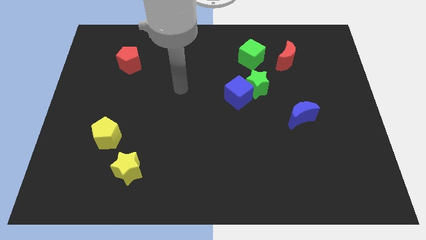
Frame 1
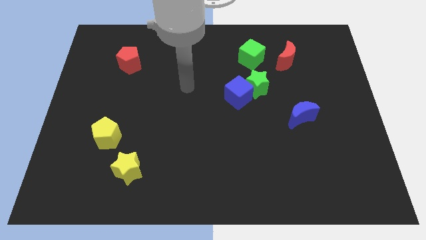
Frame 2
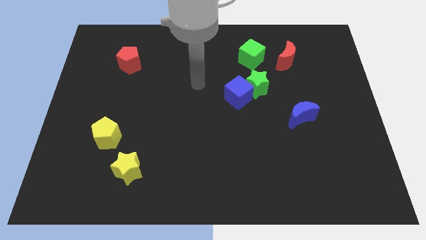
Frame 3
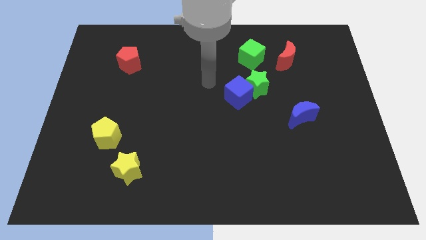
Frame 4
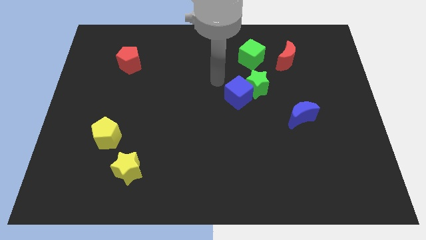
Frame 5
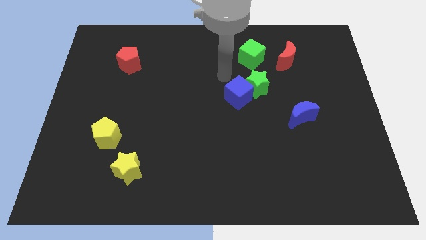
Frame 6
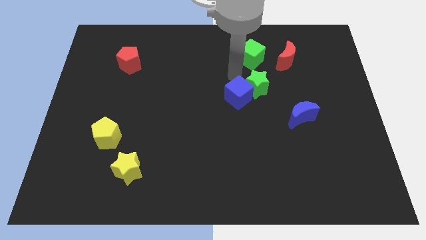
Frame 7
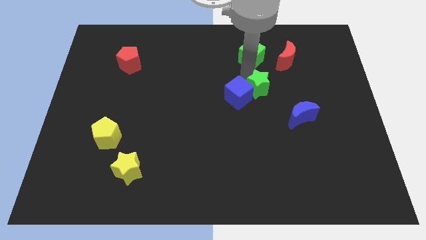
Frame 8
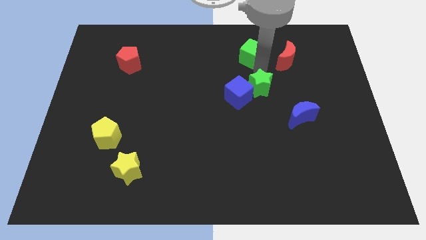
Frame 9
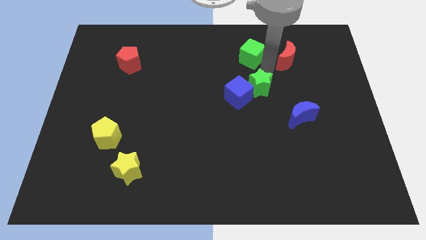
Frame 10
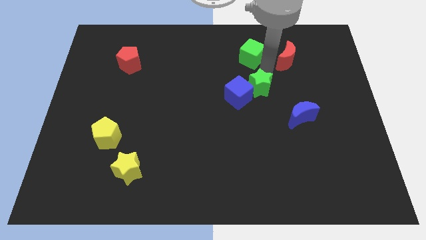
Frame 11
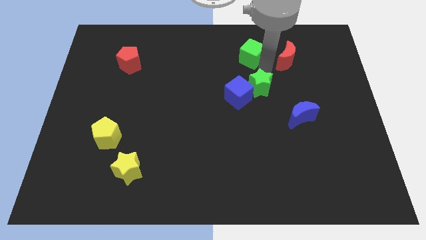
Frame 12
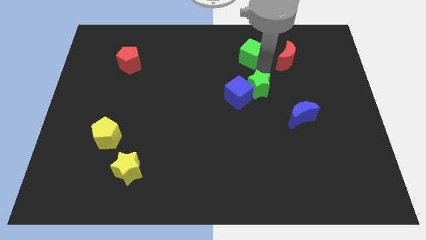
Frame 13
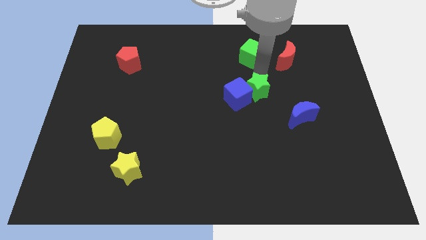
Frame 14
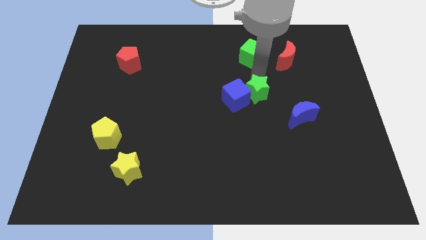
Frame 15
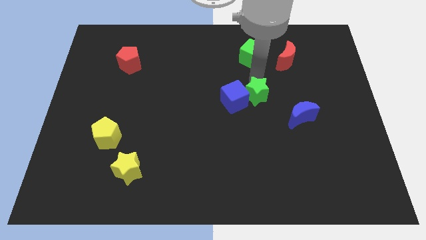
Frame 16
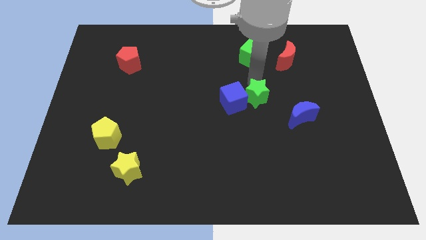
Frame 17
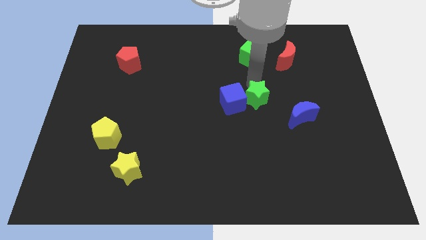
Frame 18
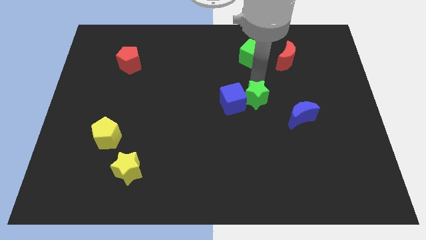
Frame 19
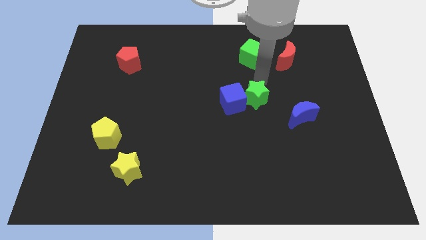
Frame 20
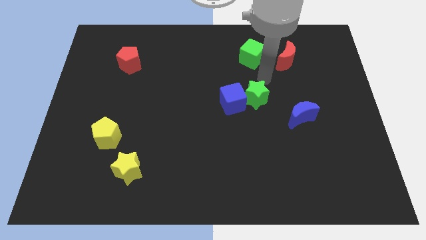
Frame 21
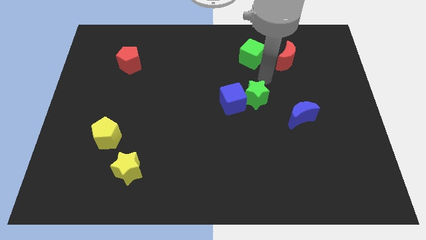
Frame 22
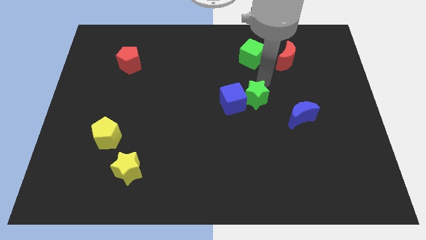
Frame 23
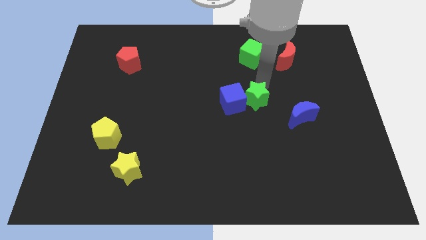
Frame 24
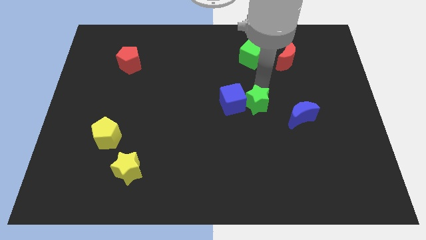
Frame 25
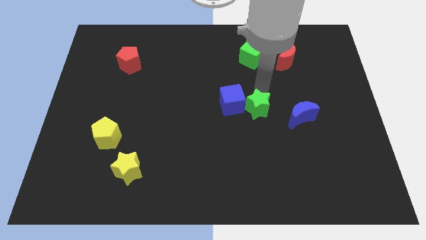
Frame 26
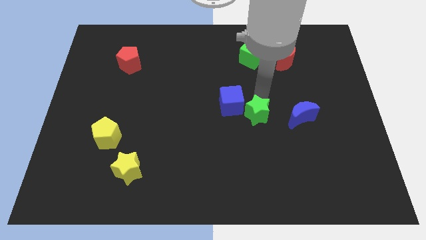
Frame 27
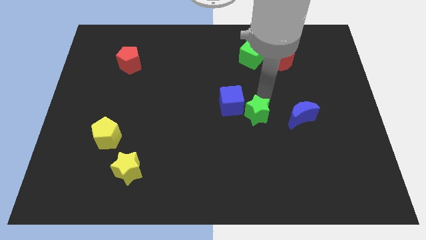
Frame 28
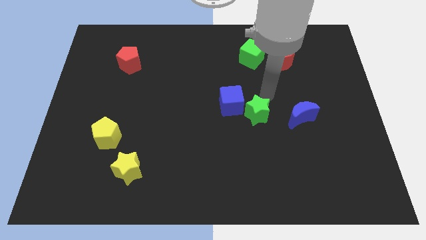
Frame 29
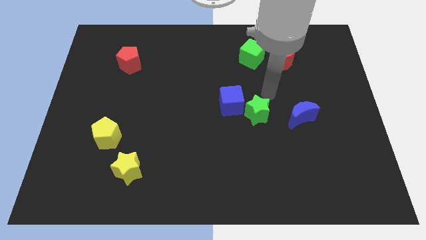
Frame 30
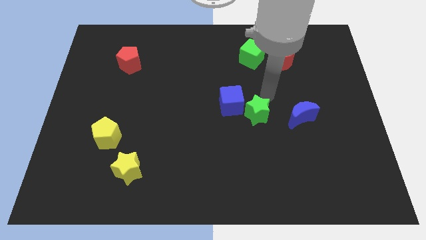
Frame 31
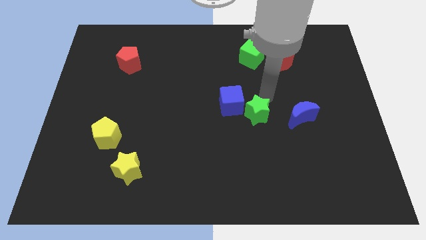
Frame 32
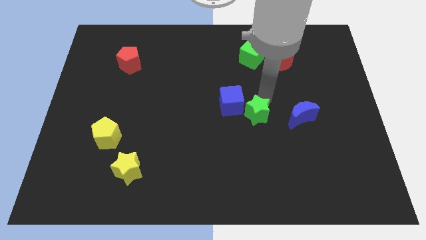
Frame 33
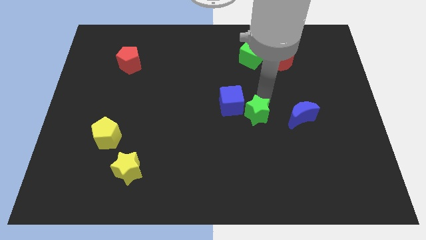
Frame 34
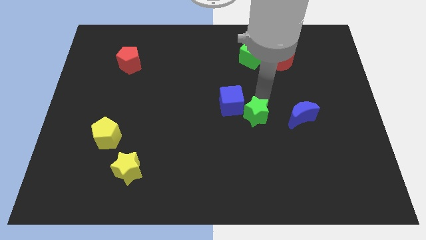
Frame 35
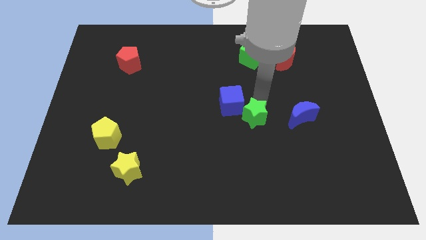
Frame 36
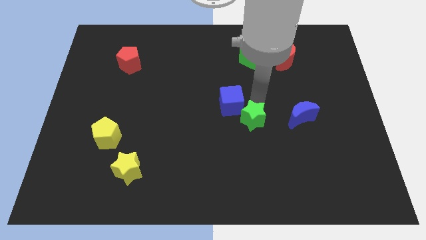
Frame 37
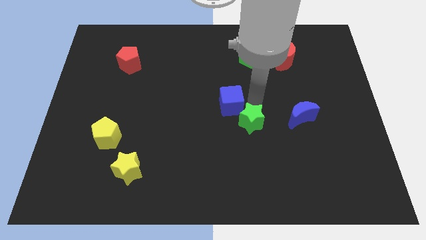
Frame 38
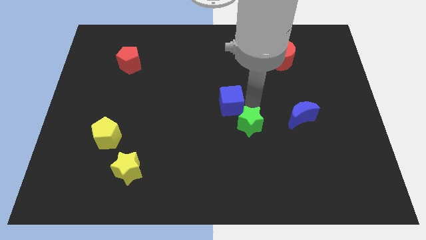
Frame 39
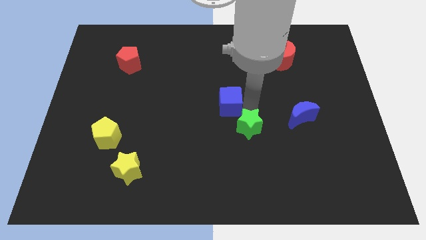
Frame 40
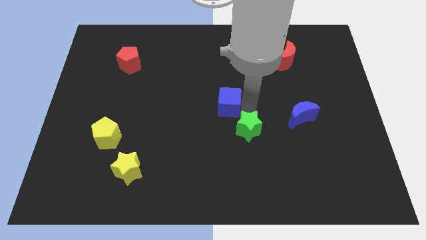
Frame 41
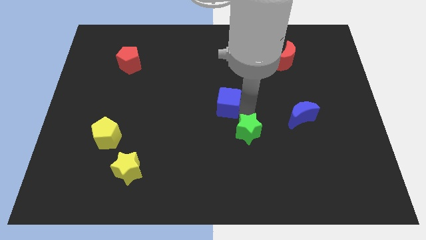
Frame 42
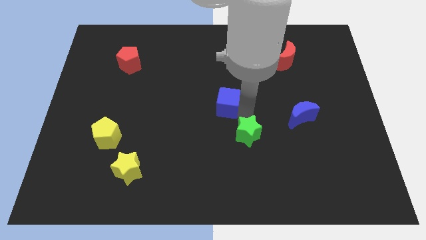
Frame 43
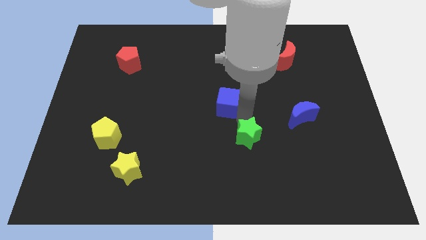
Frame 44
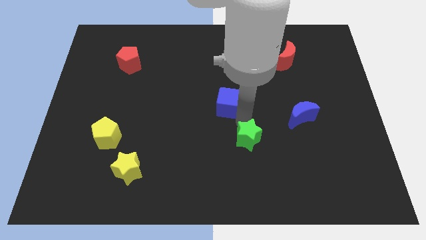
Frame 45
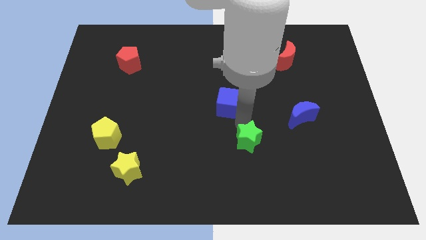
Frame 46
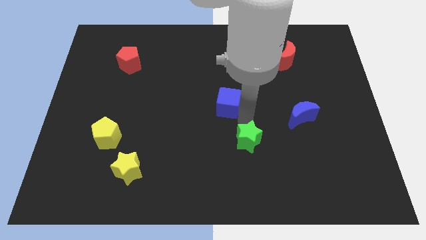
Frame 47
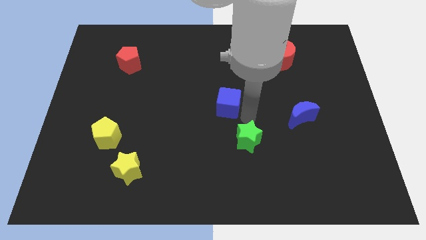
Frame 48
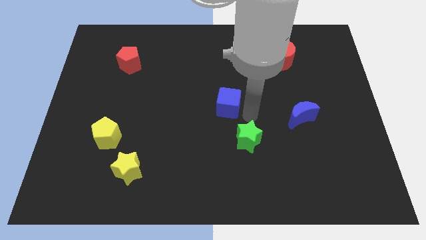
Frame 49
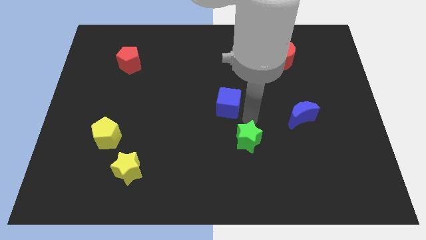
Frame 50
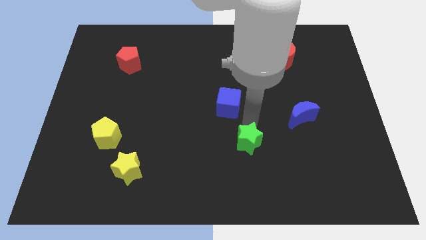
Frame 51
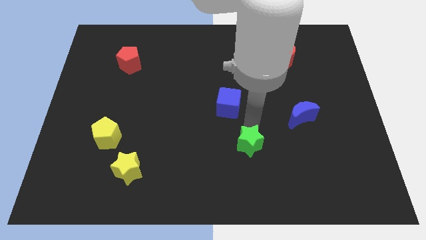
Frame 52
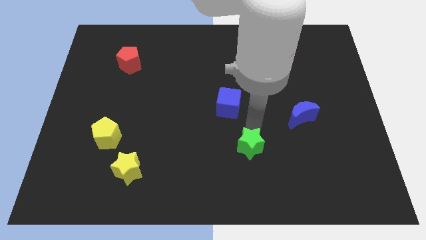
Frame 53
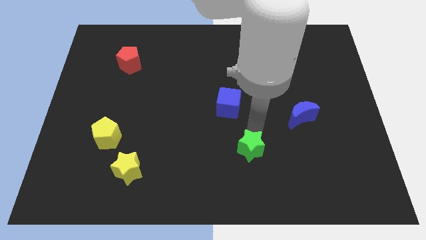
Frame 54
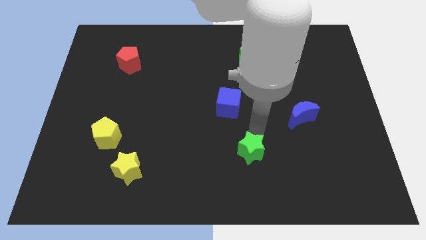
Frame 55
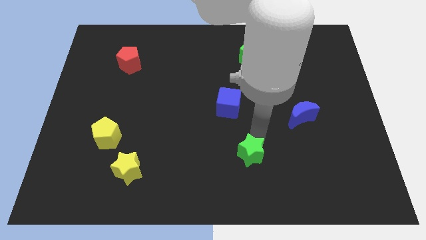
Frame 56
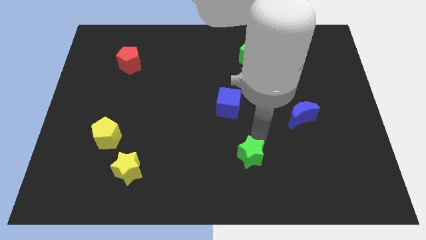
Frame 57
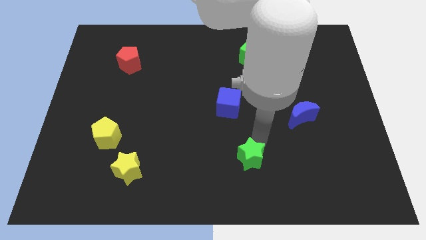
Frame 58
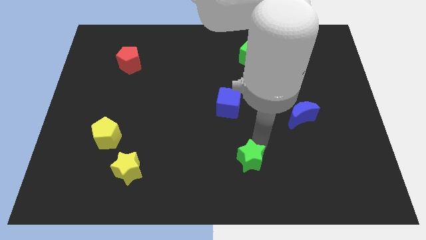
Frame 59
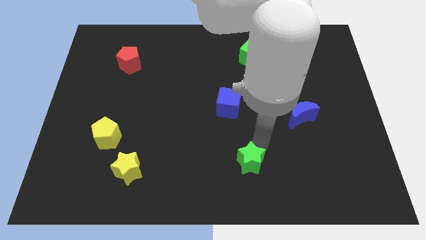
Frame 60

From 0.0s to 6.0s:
slide the green star to the bottom side
